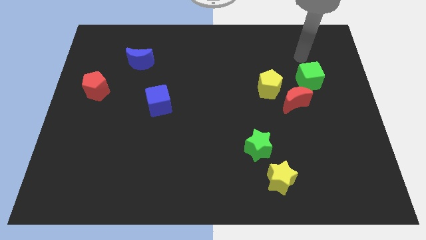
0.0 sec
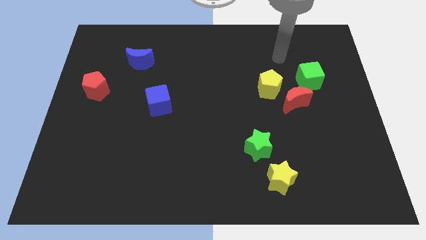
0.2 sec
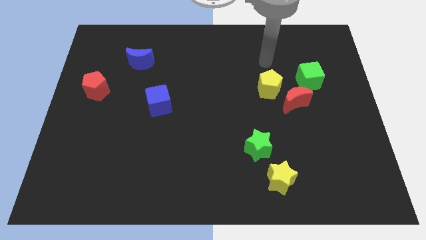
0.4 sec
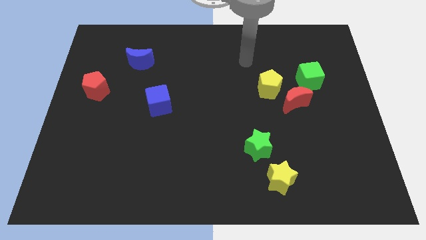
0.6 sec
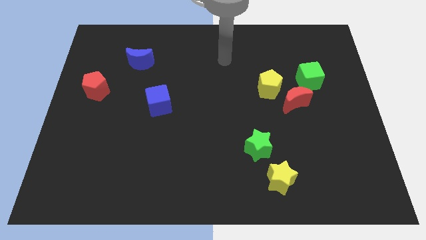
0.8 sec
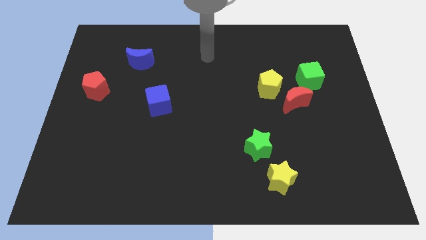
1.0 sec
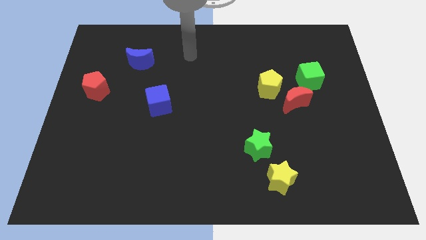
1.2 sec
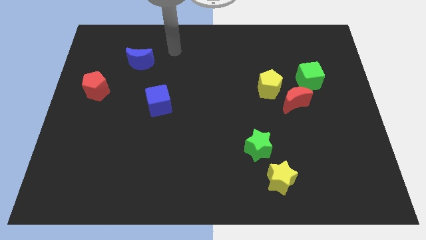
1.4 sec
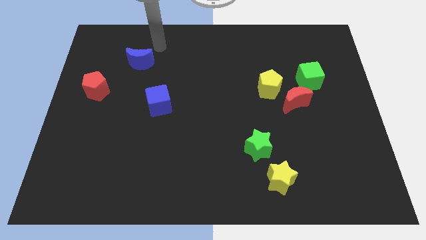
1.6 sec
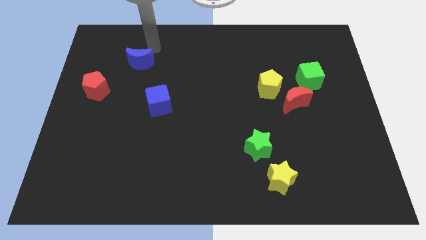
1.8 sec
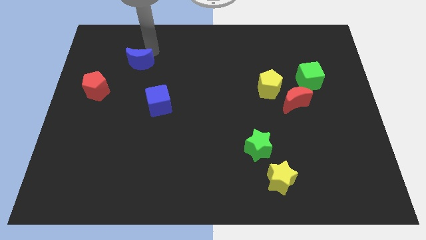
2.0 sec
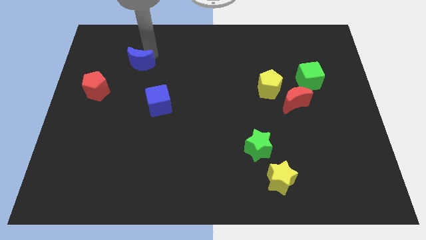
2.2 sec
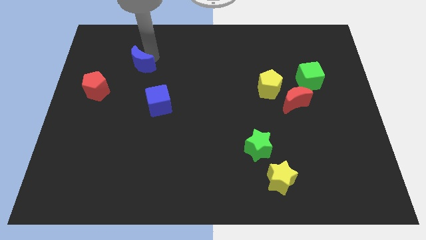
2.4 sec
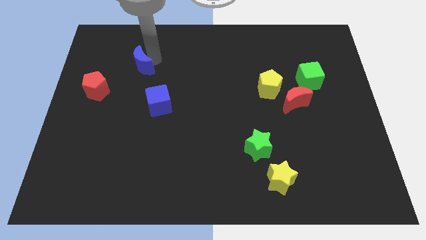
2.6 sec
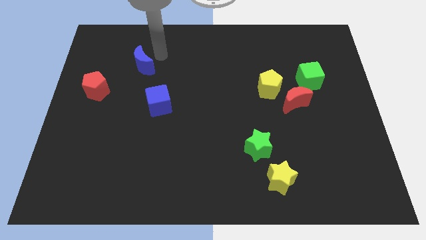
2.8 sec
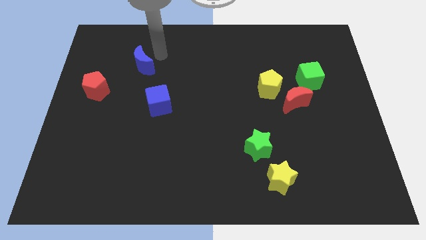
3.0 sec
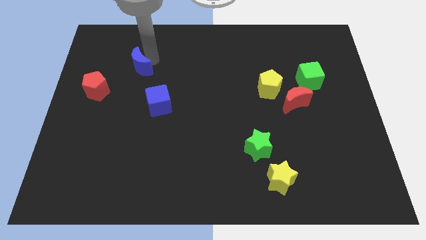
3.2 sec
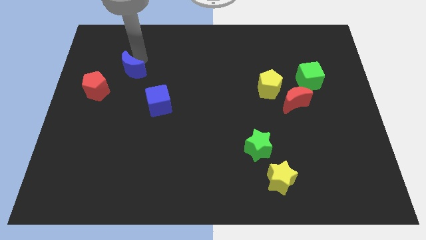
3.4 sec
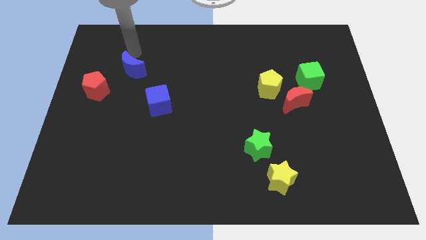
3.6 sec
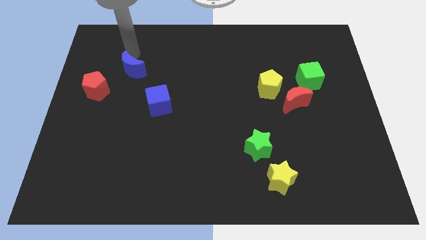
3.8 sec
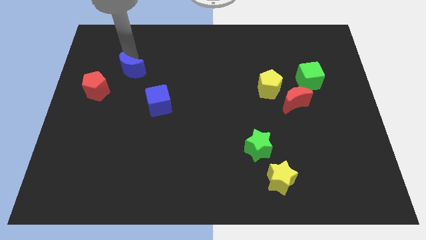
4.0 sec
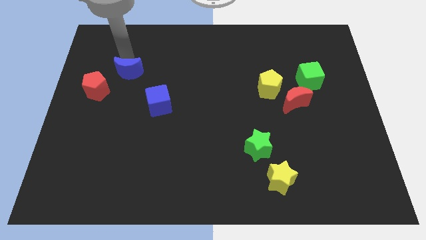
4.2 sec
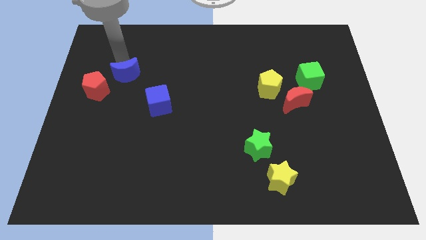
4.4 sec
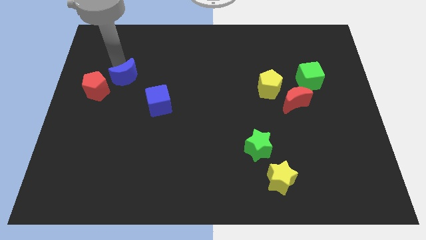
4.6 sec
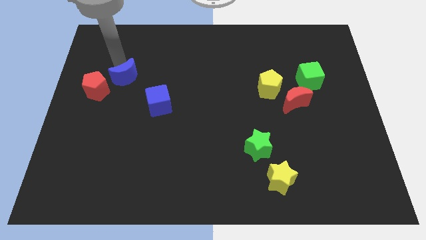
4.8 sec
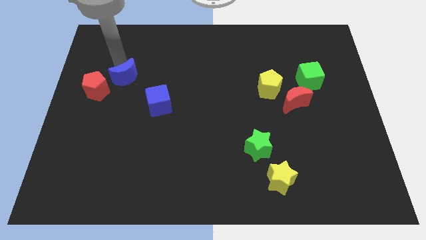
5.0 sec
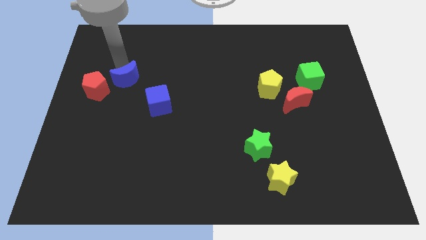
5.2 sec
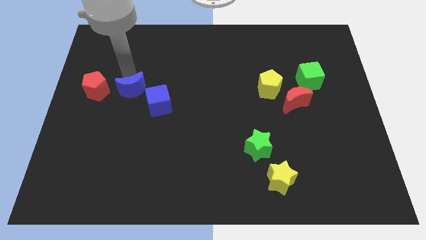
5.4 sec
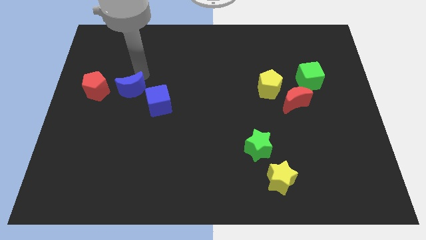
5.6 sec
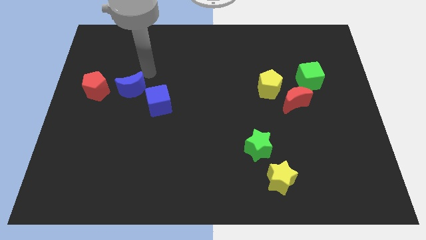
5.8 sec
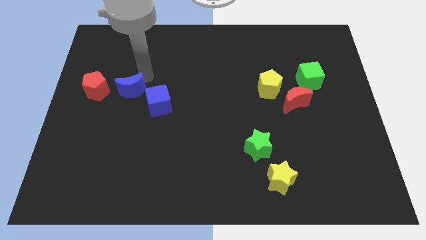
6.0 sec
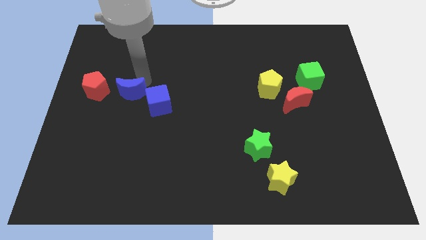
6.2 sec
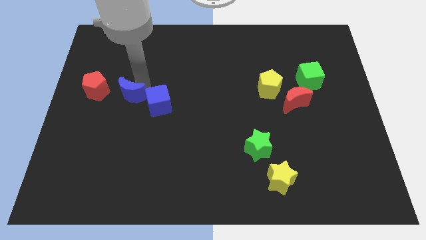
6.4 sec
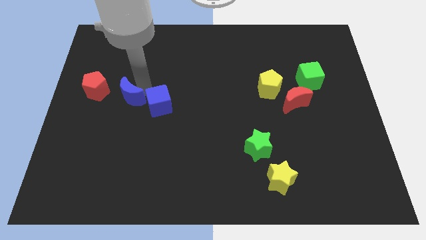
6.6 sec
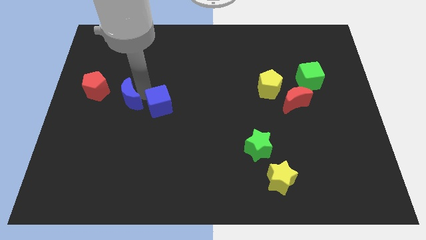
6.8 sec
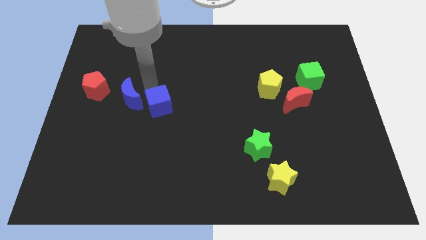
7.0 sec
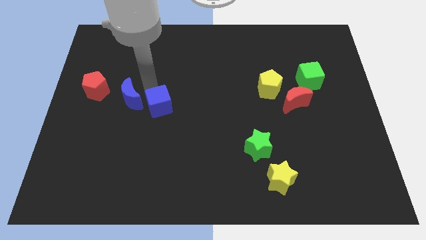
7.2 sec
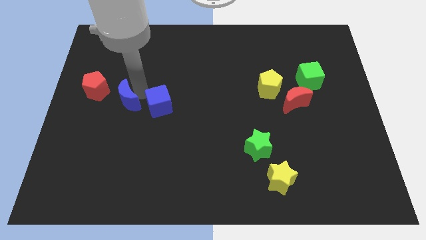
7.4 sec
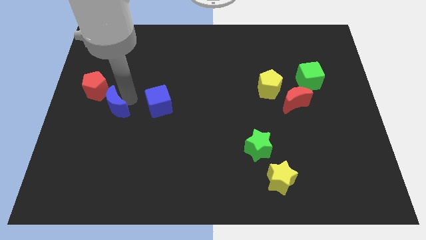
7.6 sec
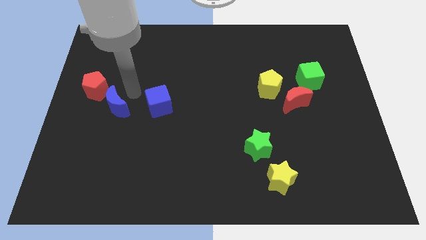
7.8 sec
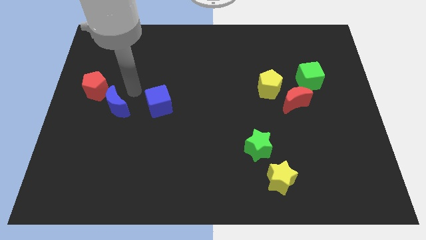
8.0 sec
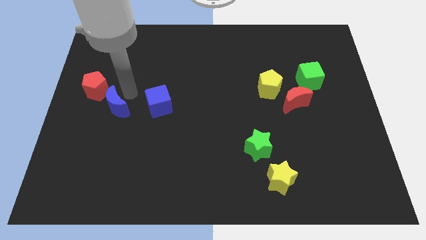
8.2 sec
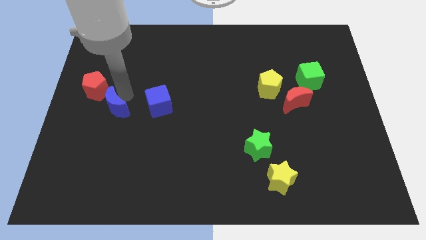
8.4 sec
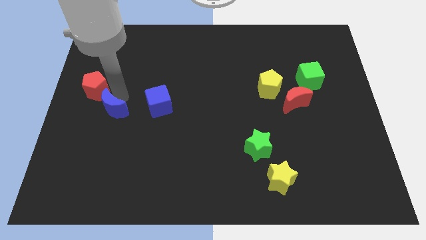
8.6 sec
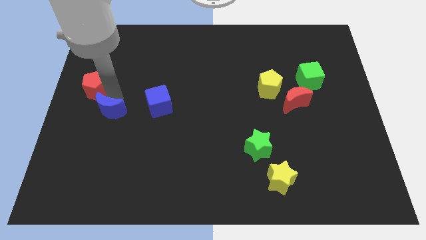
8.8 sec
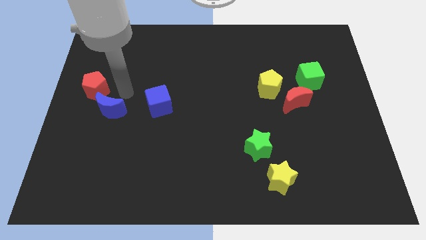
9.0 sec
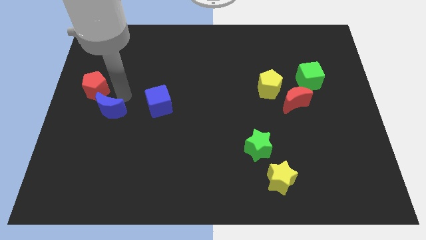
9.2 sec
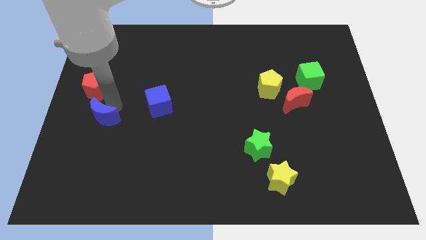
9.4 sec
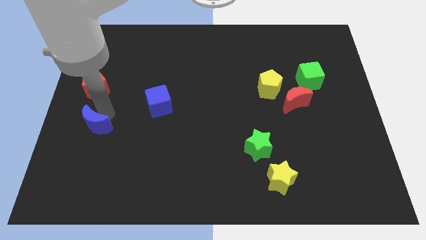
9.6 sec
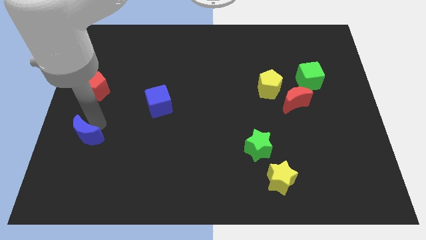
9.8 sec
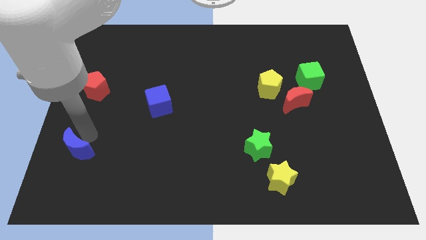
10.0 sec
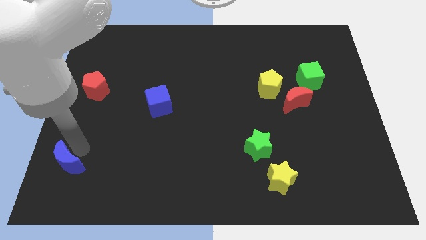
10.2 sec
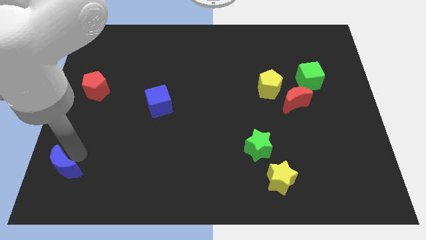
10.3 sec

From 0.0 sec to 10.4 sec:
push the blue moon to the bottom left

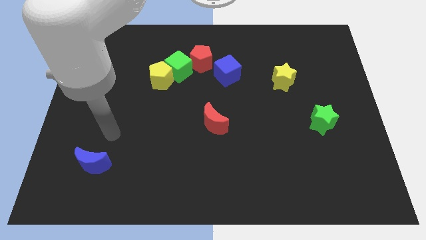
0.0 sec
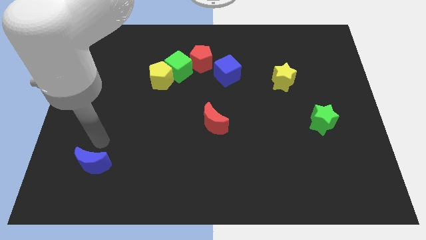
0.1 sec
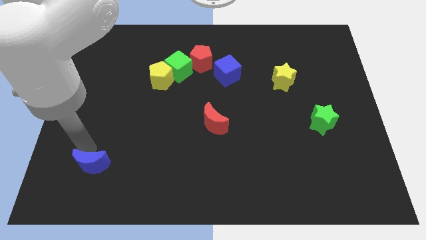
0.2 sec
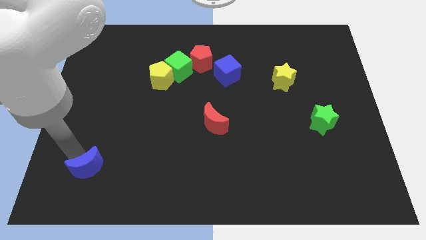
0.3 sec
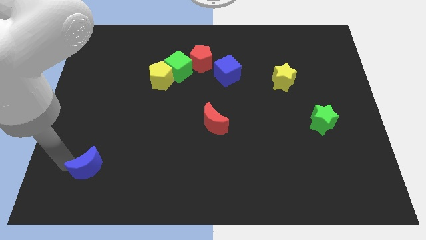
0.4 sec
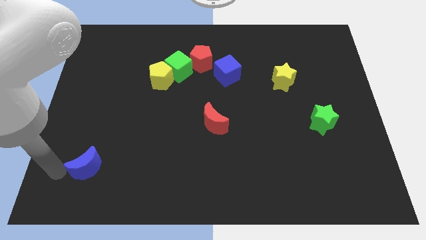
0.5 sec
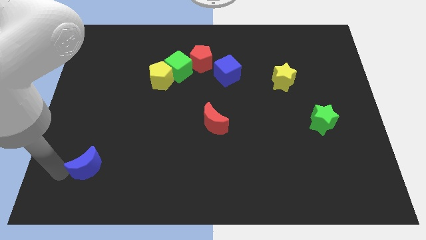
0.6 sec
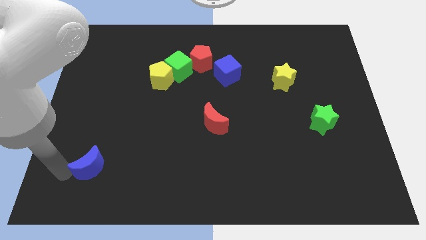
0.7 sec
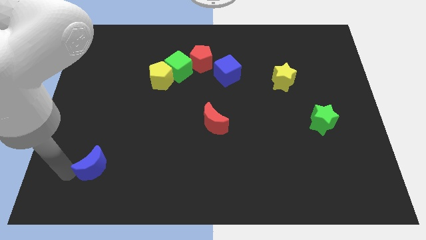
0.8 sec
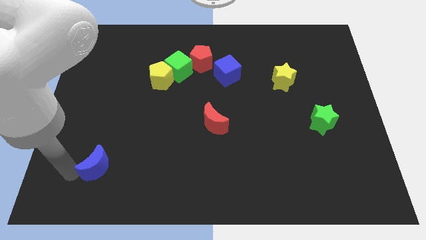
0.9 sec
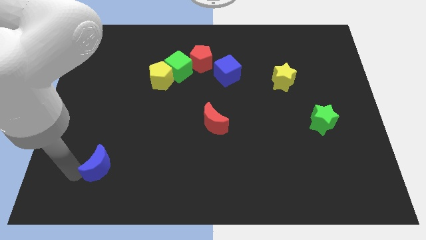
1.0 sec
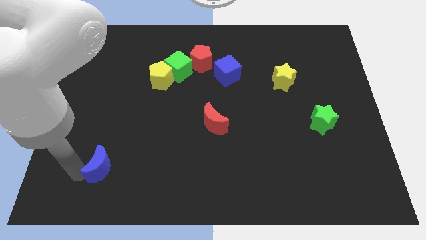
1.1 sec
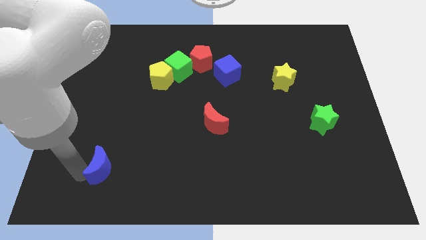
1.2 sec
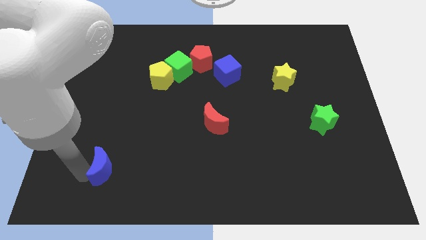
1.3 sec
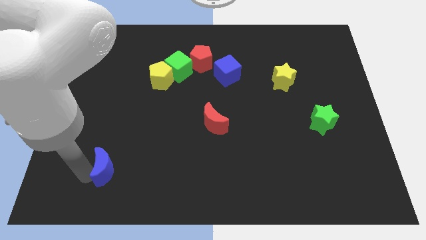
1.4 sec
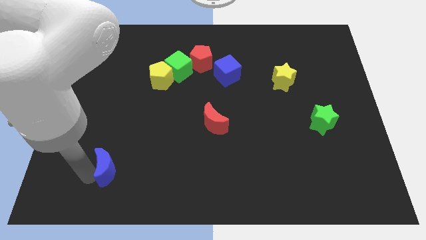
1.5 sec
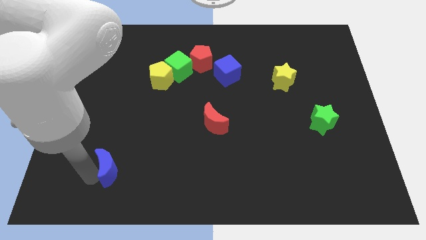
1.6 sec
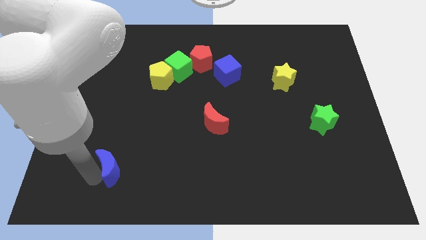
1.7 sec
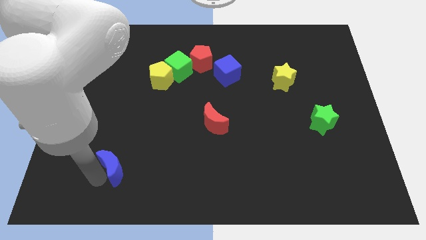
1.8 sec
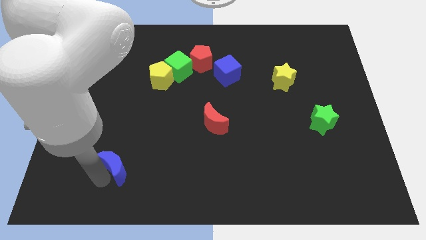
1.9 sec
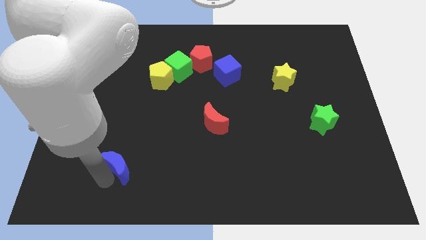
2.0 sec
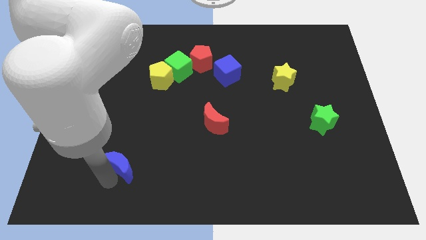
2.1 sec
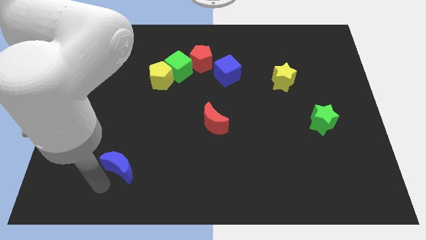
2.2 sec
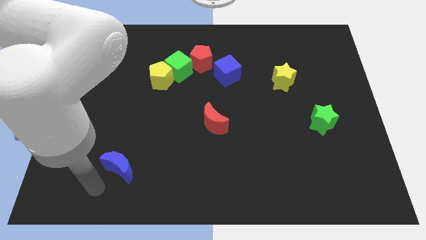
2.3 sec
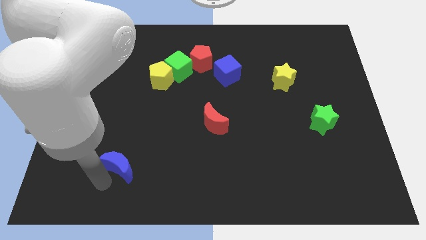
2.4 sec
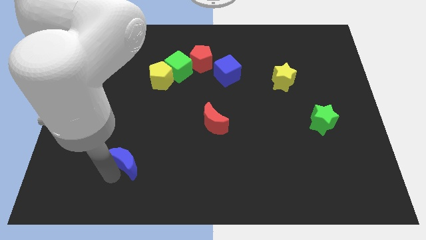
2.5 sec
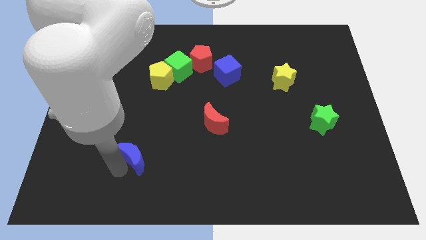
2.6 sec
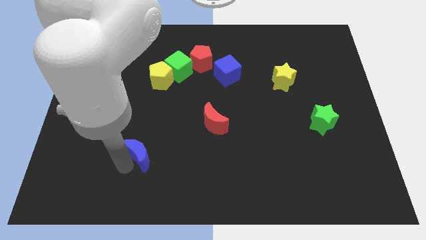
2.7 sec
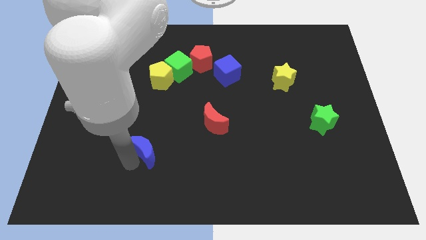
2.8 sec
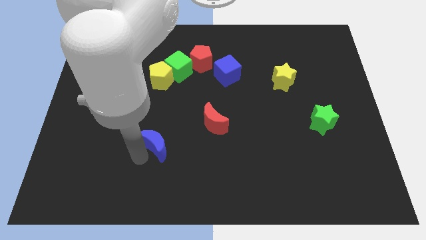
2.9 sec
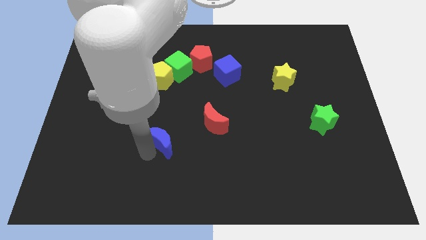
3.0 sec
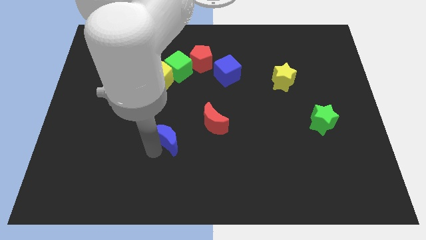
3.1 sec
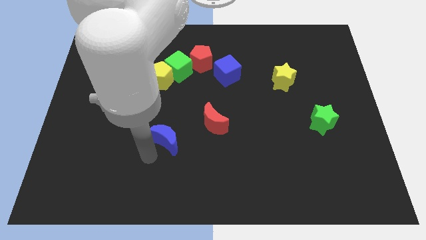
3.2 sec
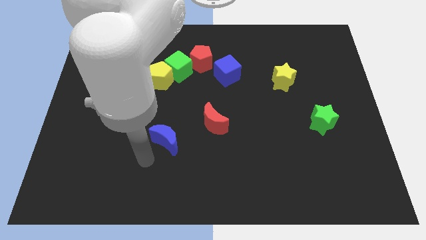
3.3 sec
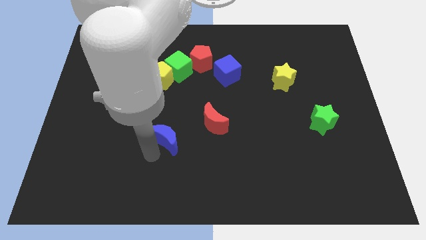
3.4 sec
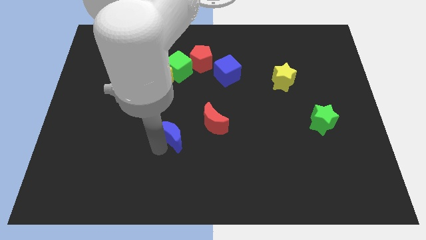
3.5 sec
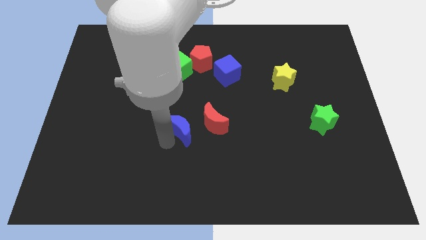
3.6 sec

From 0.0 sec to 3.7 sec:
push the blue moon to the middle
